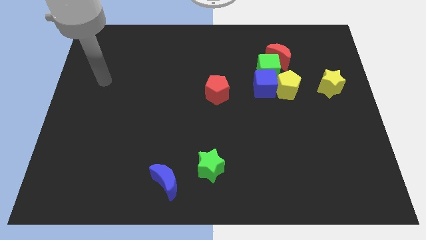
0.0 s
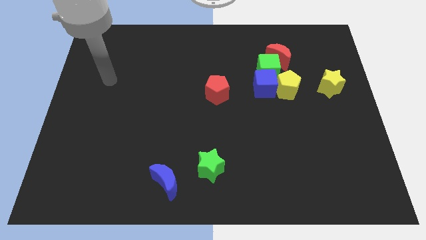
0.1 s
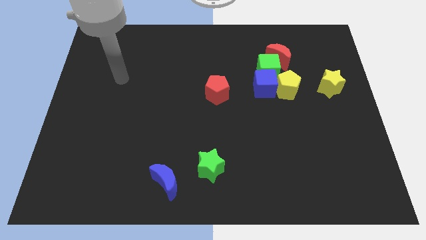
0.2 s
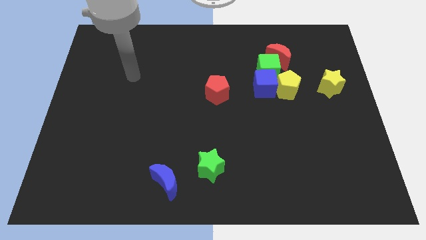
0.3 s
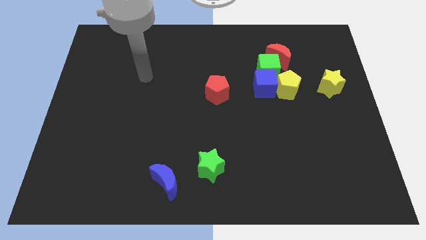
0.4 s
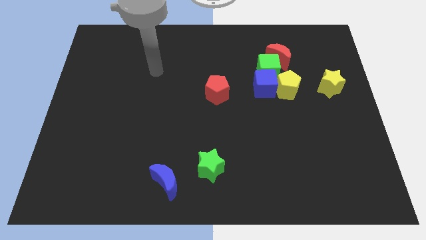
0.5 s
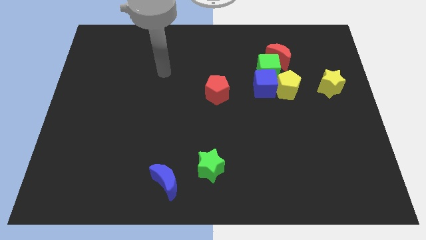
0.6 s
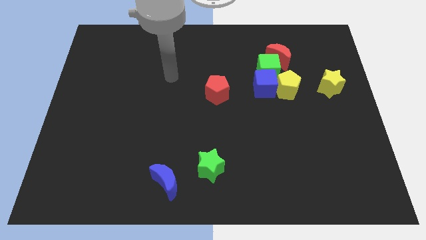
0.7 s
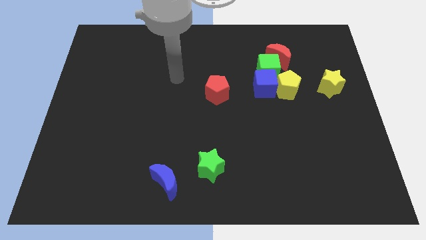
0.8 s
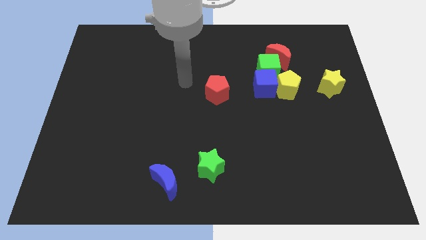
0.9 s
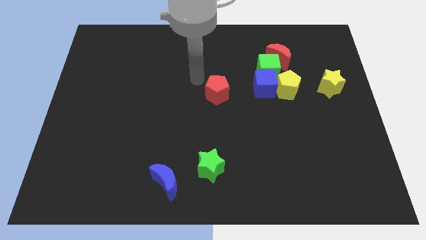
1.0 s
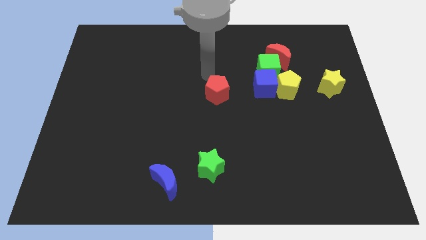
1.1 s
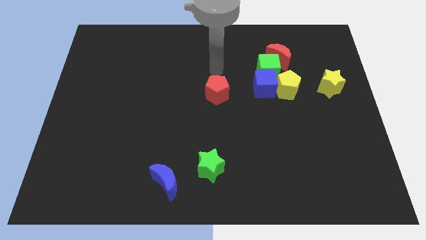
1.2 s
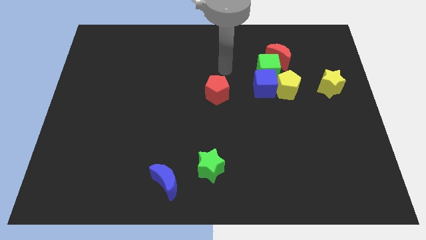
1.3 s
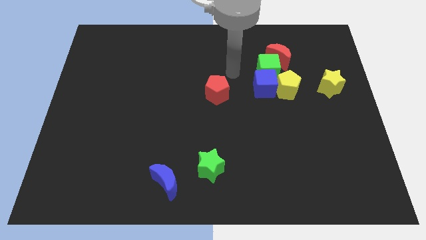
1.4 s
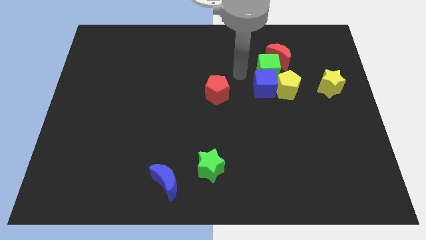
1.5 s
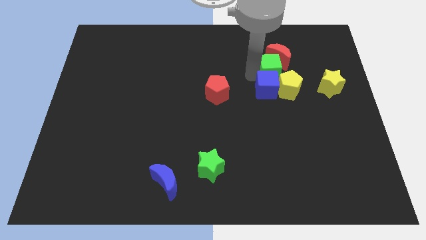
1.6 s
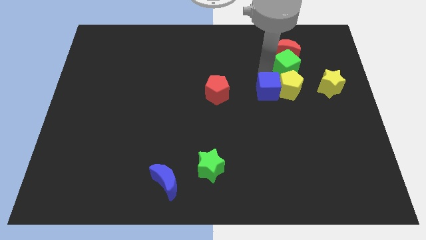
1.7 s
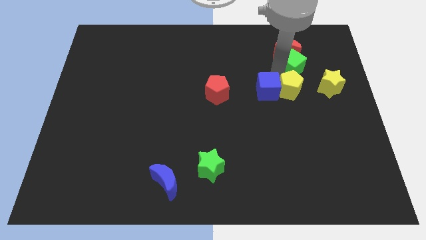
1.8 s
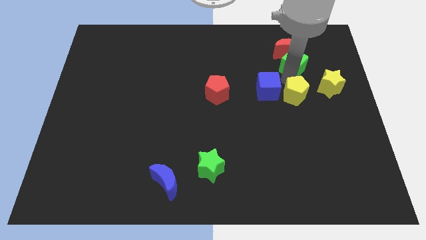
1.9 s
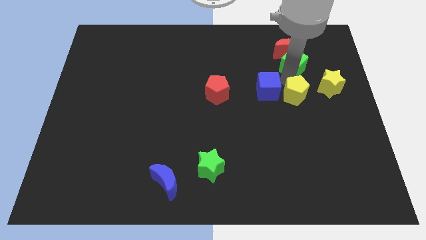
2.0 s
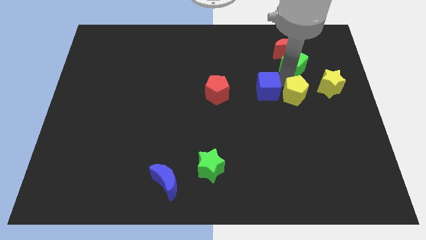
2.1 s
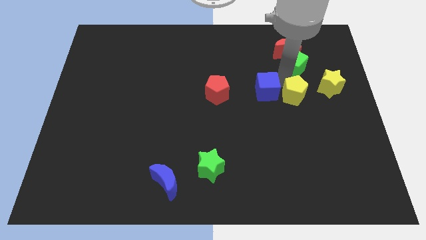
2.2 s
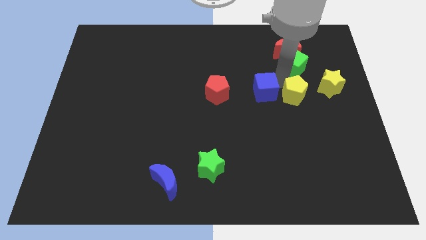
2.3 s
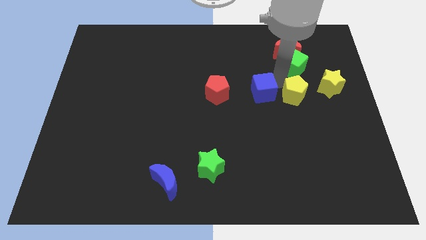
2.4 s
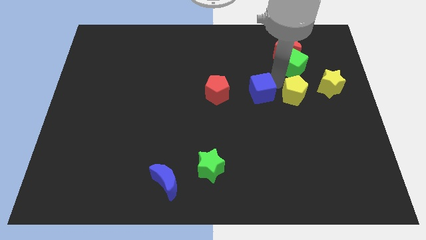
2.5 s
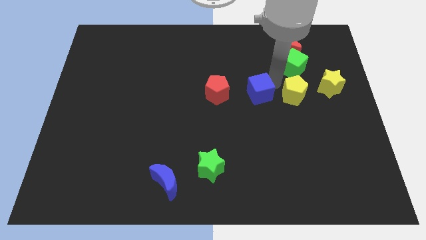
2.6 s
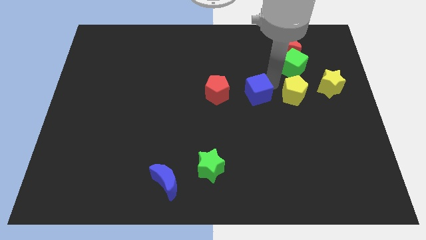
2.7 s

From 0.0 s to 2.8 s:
move the blue cube away from the yellow pentagon and green cube

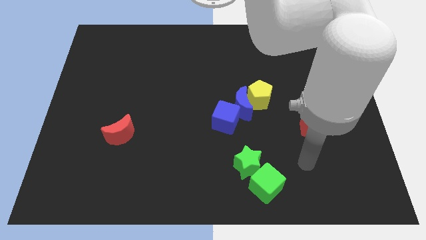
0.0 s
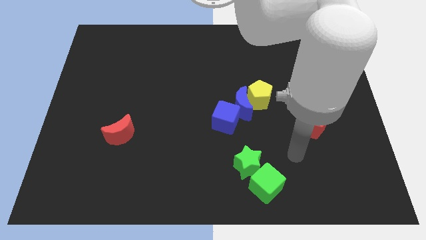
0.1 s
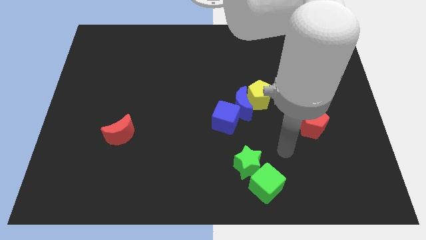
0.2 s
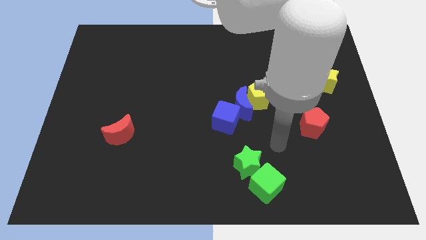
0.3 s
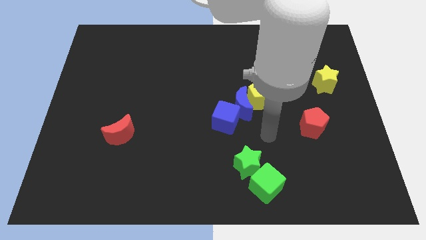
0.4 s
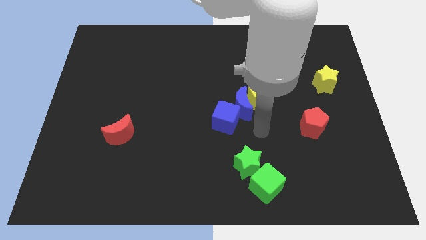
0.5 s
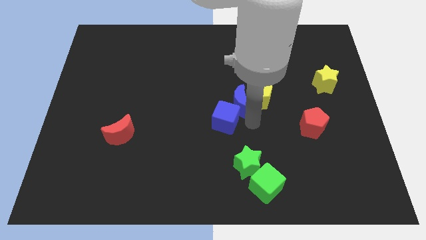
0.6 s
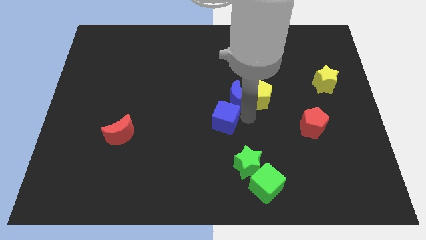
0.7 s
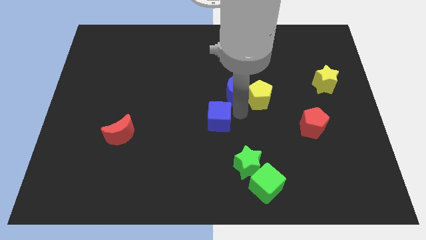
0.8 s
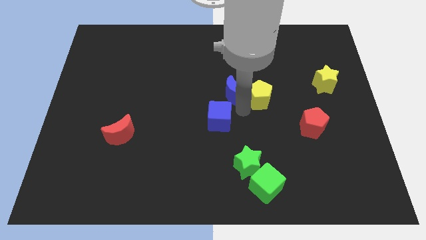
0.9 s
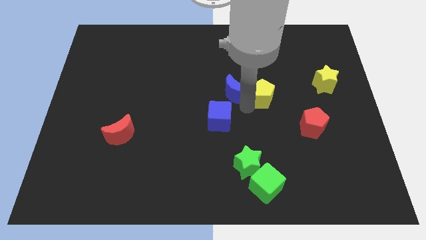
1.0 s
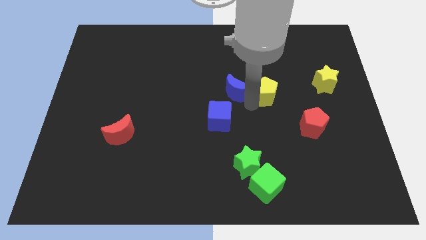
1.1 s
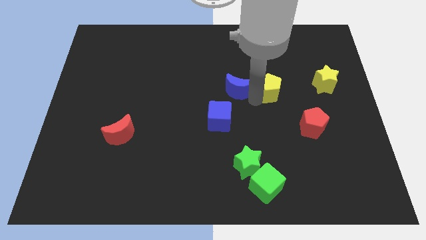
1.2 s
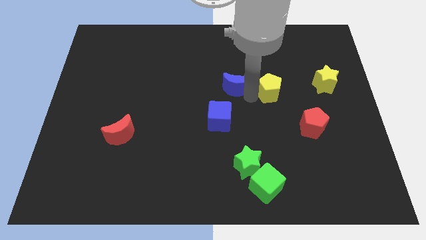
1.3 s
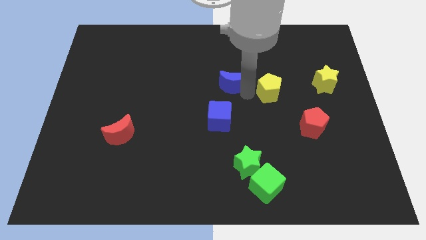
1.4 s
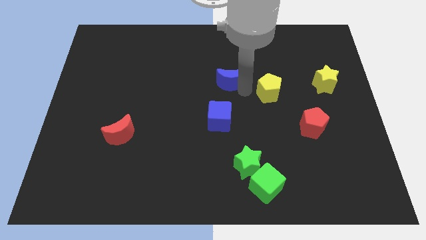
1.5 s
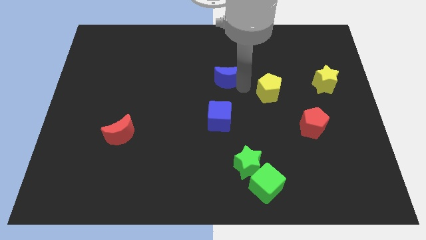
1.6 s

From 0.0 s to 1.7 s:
move the yellow pentagon away from the blue moon

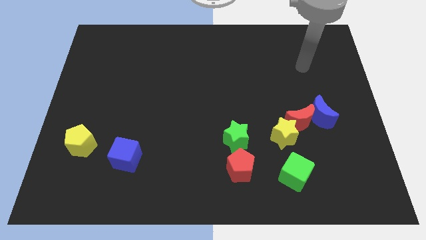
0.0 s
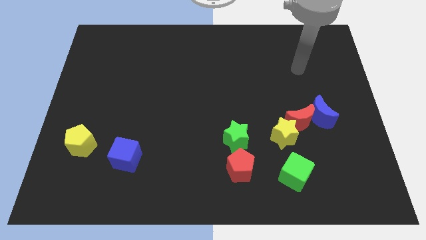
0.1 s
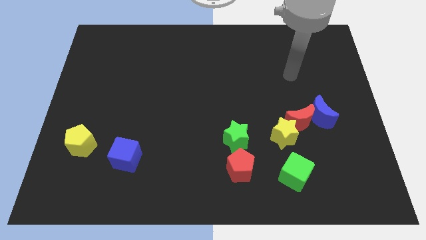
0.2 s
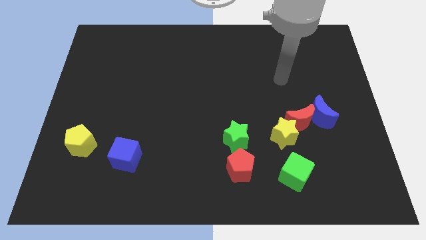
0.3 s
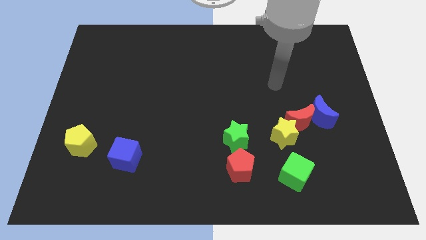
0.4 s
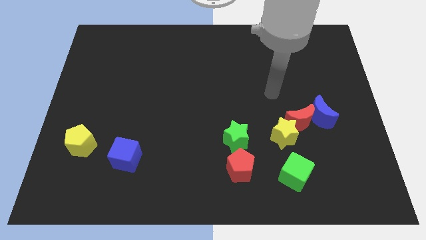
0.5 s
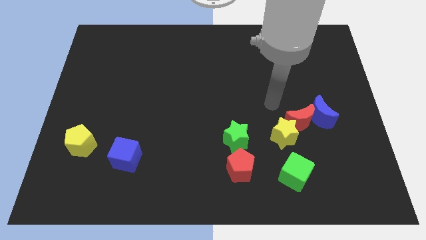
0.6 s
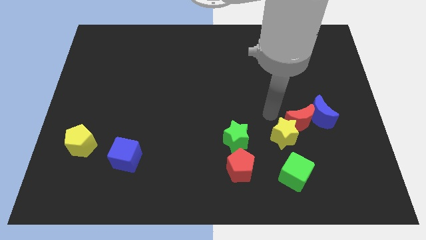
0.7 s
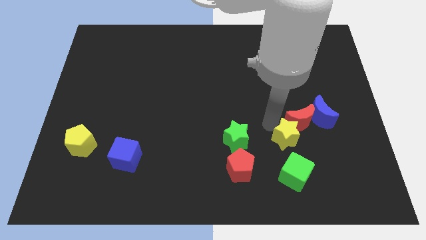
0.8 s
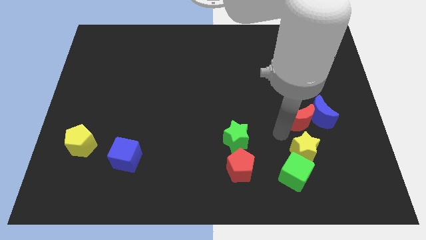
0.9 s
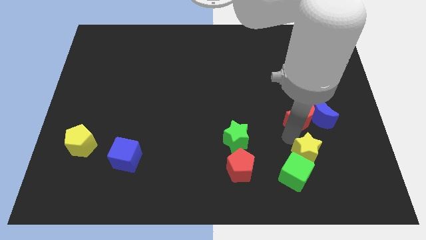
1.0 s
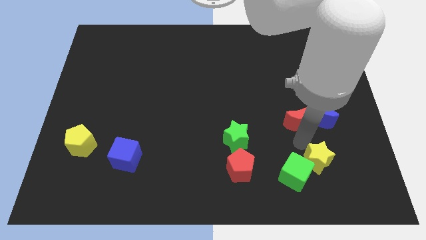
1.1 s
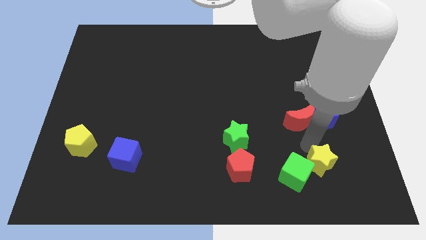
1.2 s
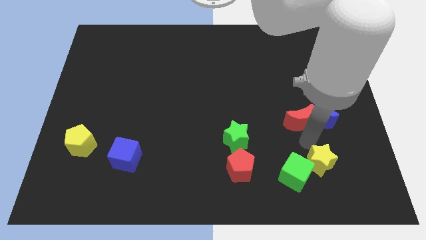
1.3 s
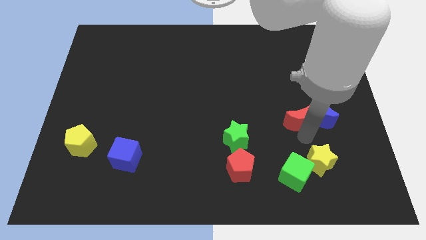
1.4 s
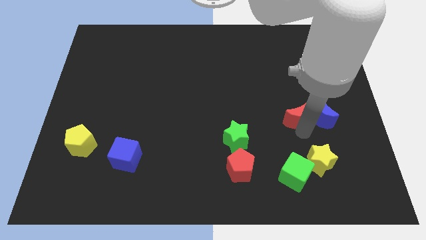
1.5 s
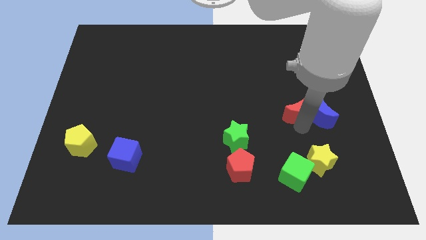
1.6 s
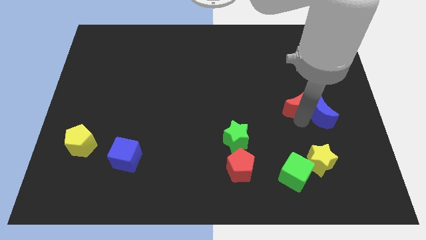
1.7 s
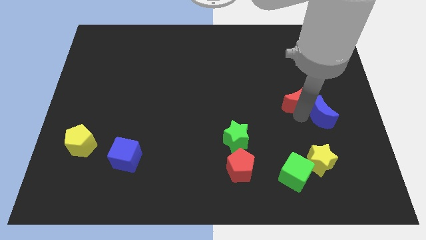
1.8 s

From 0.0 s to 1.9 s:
move the red moon away from the blue moon and yellow star

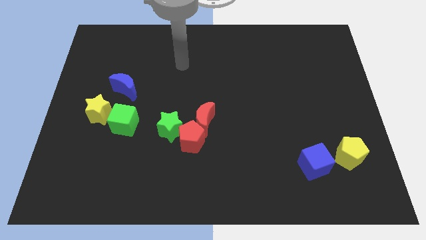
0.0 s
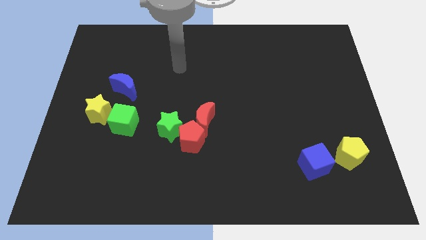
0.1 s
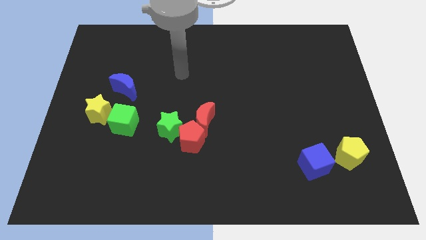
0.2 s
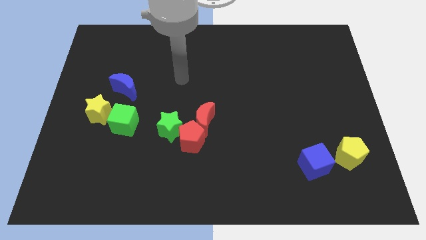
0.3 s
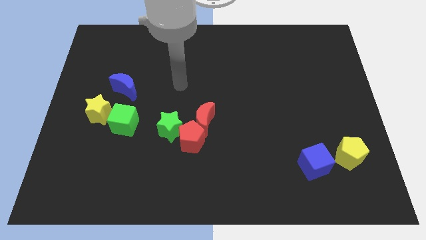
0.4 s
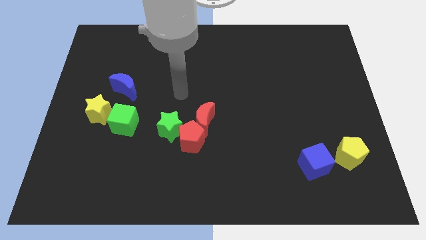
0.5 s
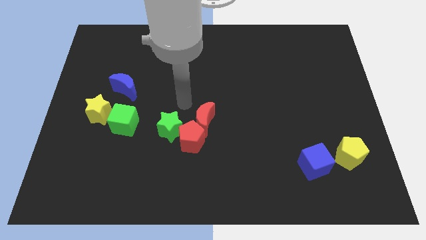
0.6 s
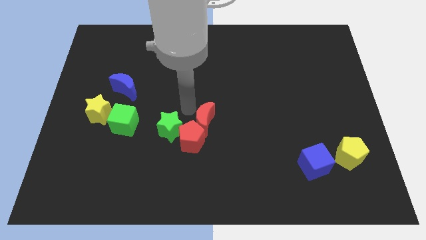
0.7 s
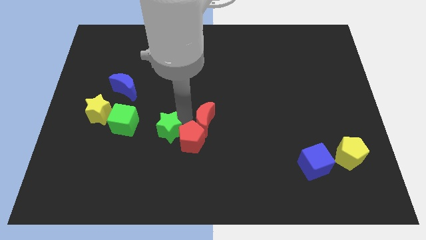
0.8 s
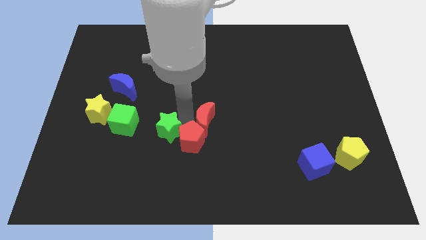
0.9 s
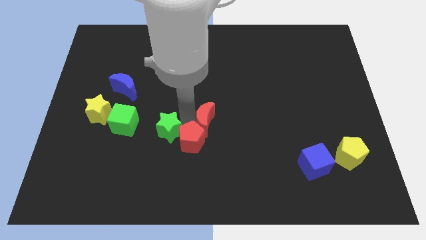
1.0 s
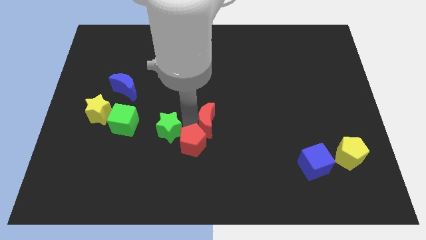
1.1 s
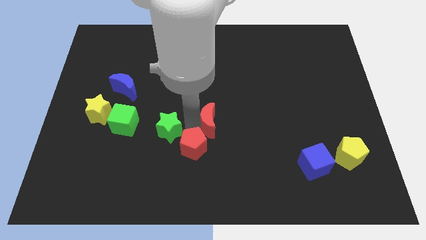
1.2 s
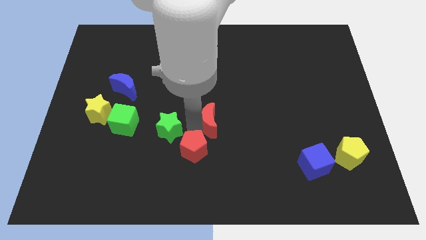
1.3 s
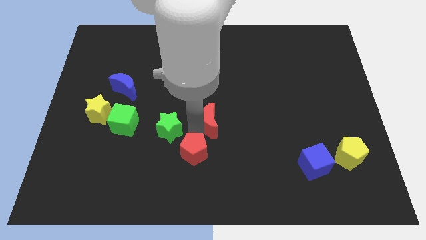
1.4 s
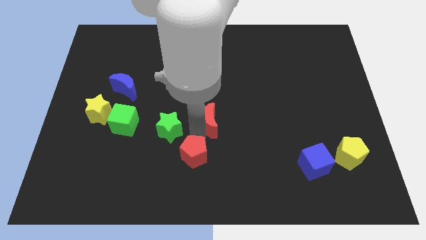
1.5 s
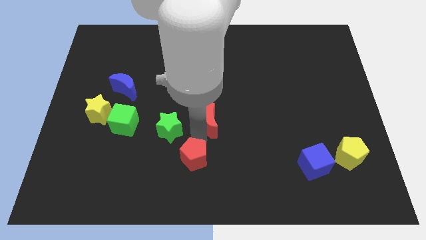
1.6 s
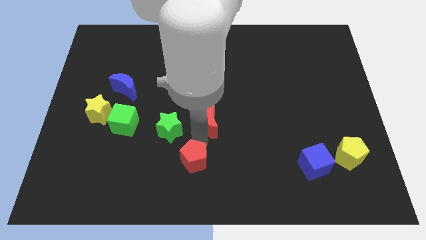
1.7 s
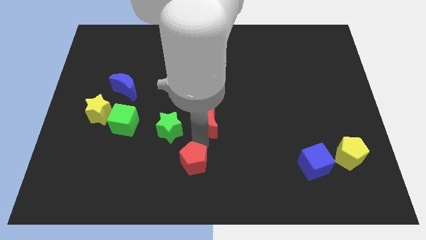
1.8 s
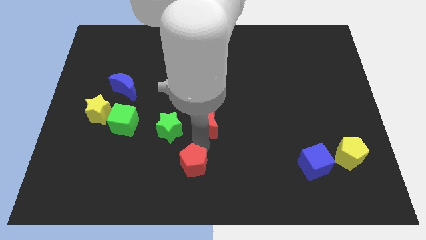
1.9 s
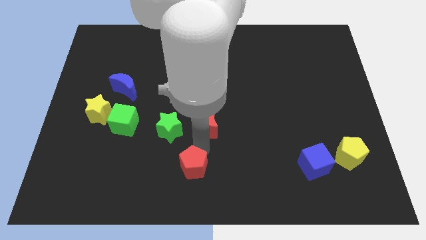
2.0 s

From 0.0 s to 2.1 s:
pull the red pentagon apart from the red moon and green star

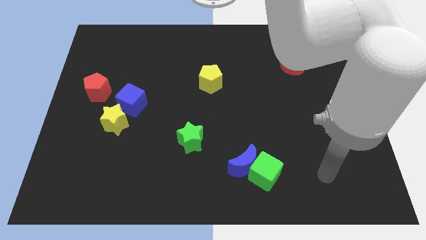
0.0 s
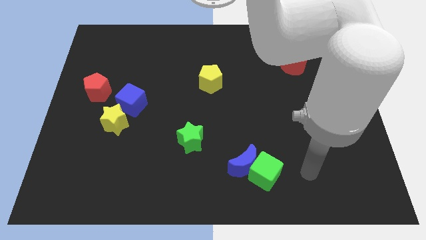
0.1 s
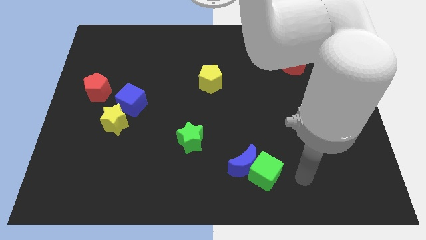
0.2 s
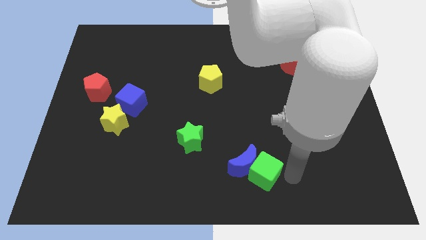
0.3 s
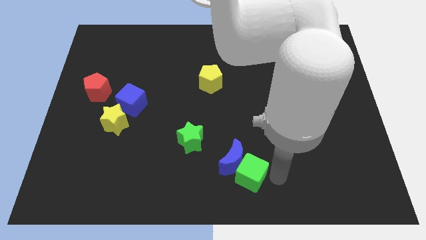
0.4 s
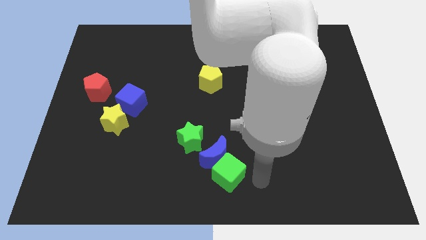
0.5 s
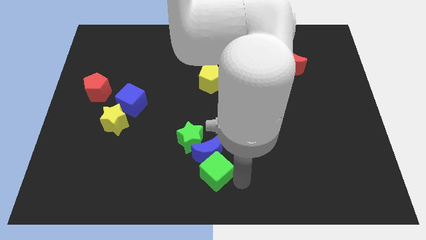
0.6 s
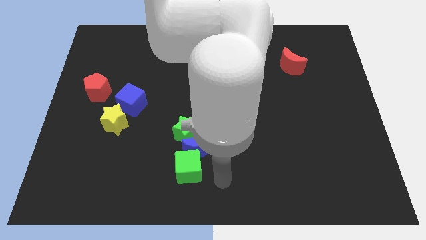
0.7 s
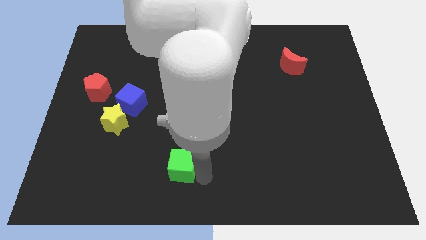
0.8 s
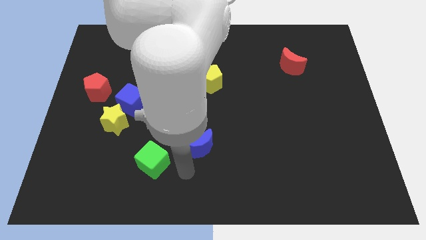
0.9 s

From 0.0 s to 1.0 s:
pull the blue moon apart from the green cube
